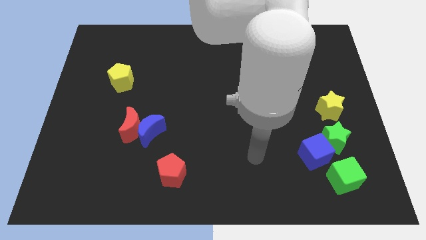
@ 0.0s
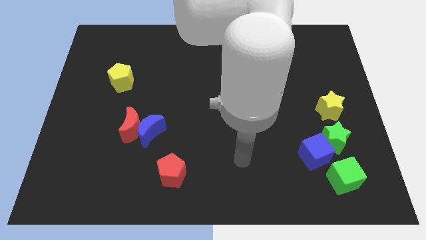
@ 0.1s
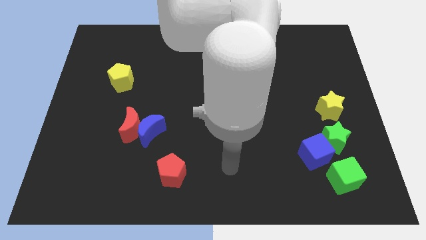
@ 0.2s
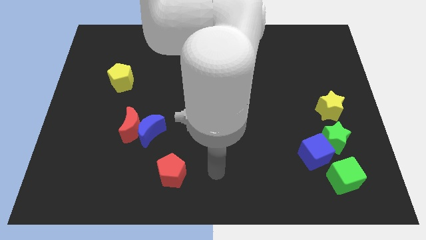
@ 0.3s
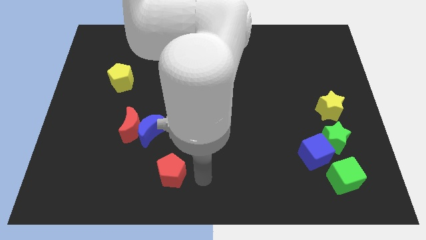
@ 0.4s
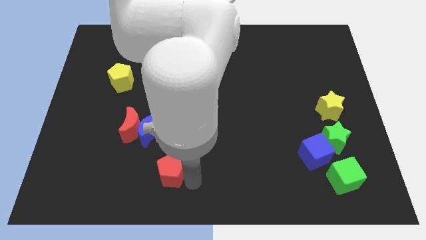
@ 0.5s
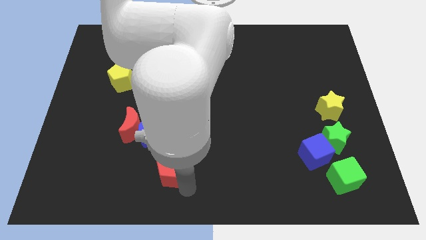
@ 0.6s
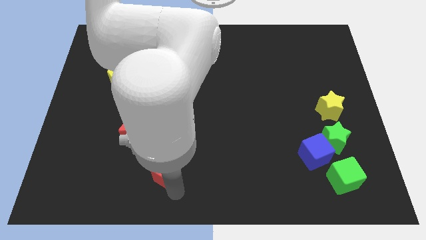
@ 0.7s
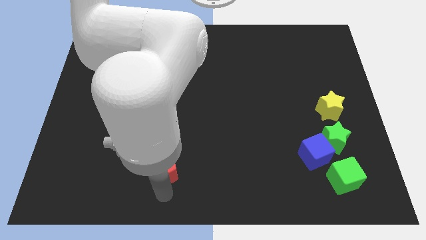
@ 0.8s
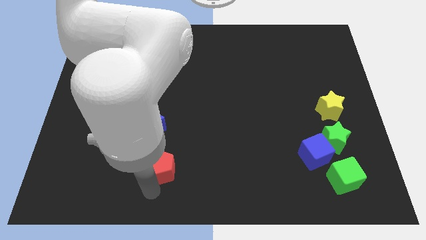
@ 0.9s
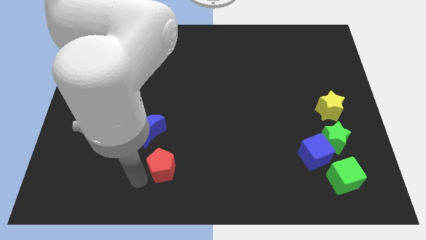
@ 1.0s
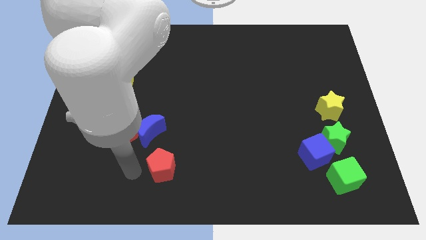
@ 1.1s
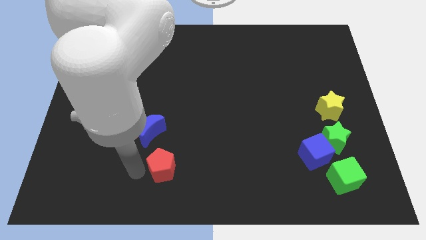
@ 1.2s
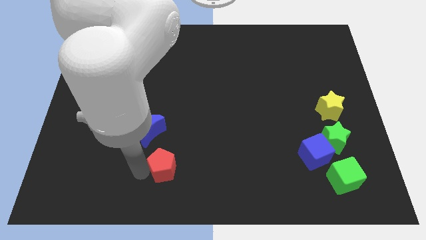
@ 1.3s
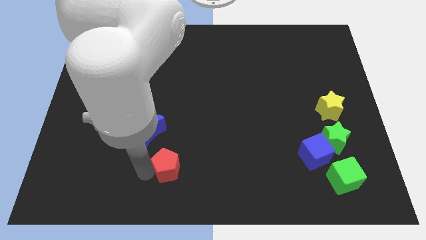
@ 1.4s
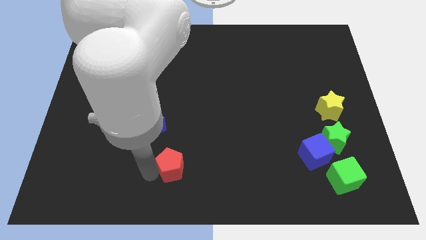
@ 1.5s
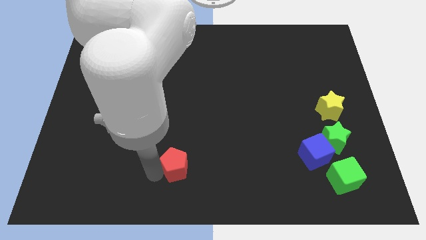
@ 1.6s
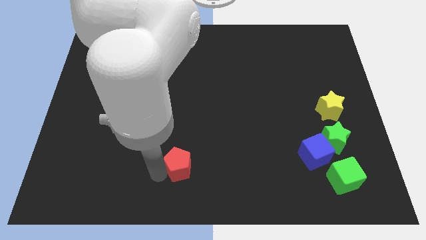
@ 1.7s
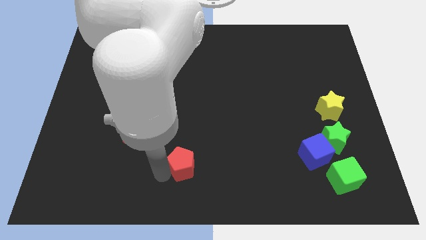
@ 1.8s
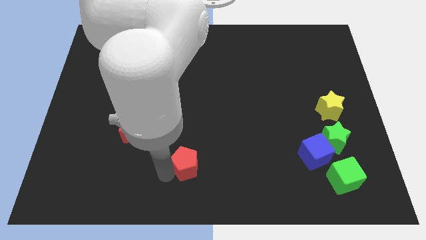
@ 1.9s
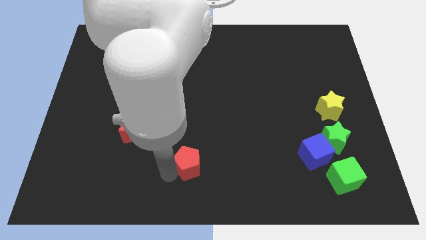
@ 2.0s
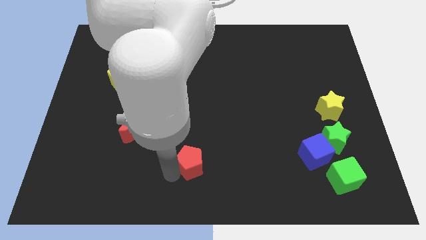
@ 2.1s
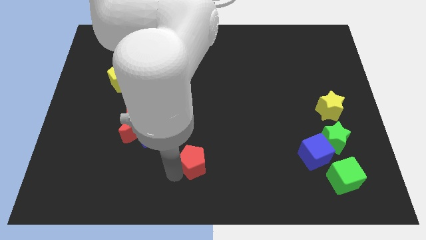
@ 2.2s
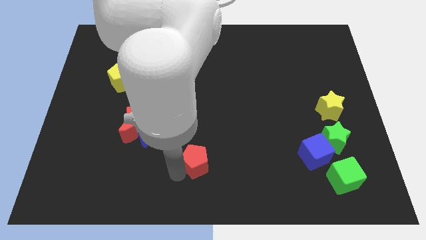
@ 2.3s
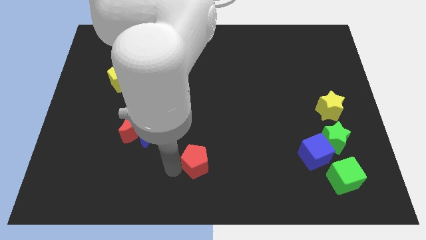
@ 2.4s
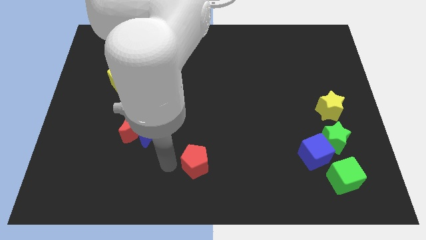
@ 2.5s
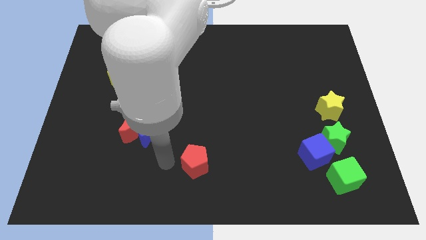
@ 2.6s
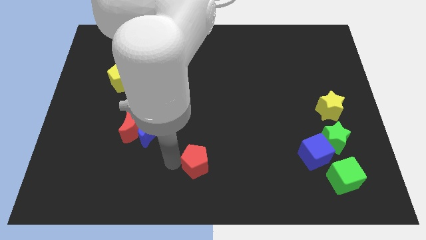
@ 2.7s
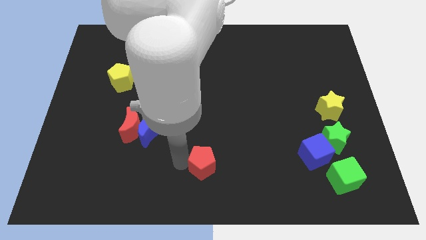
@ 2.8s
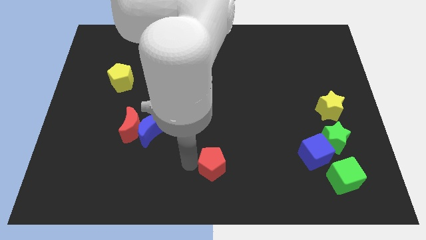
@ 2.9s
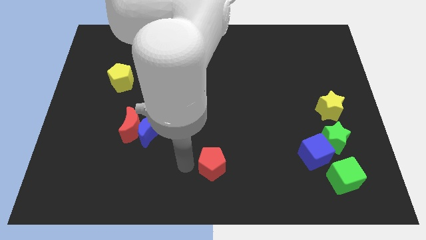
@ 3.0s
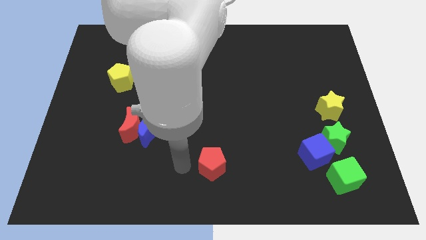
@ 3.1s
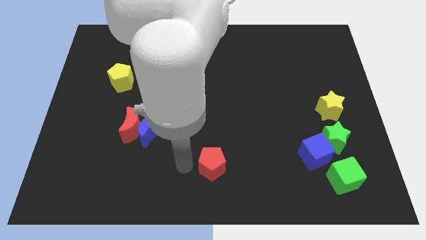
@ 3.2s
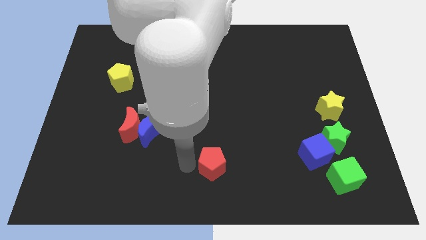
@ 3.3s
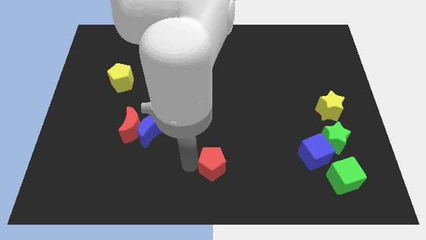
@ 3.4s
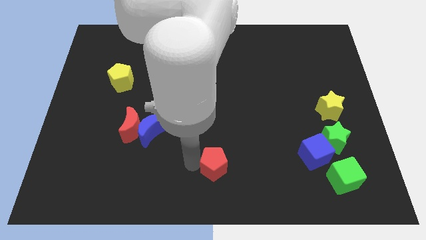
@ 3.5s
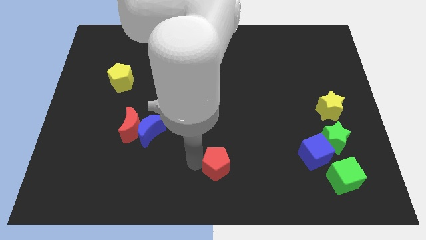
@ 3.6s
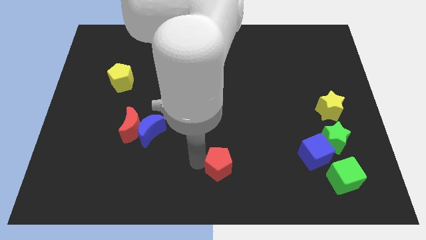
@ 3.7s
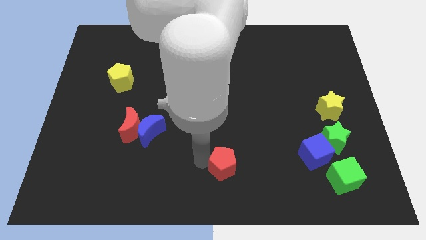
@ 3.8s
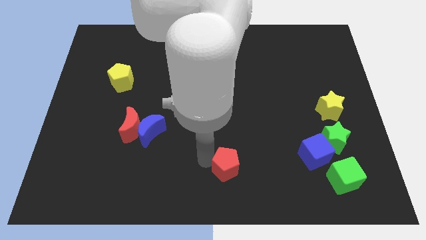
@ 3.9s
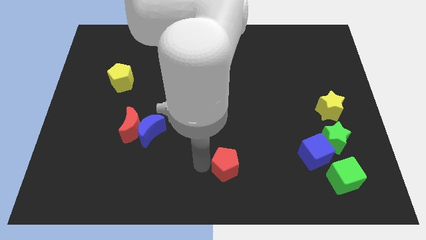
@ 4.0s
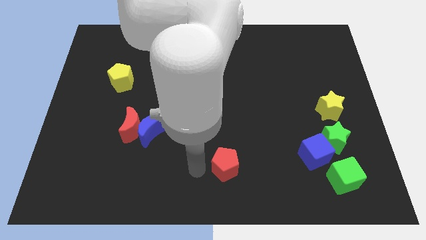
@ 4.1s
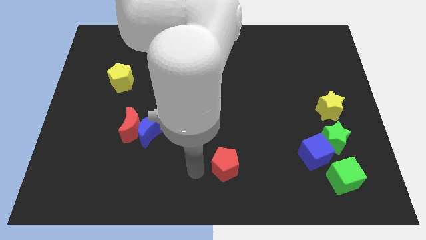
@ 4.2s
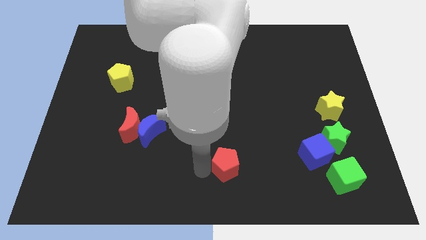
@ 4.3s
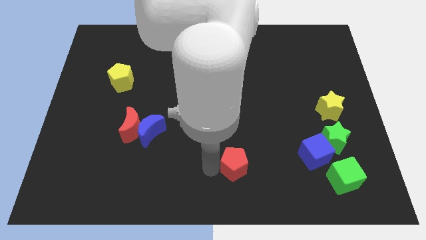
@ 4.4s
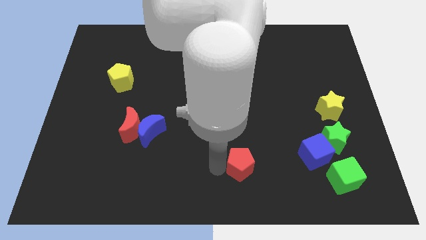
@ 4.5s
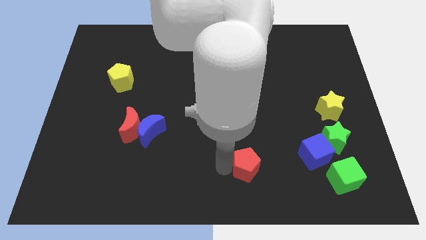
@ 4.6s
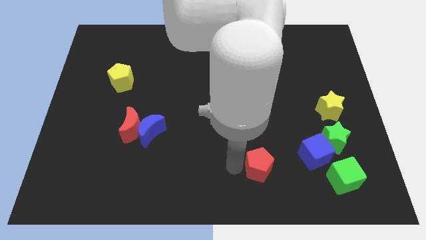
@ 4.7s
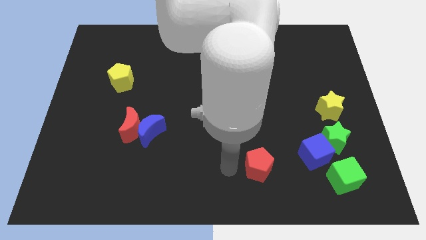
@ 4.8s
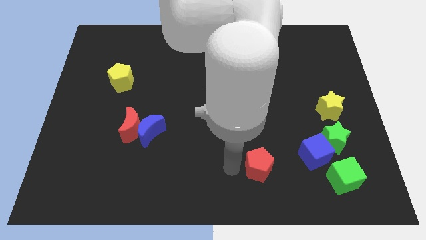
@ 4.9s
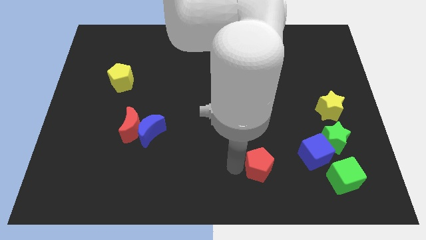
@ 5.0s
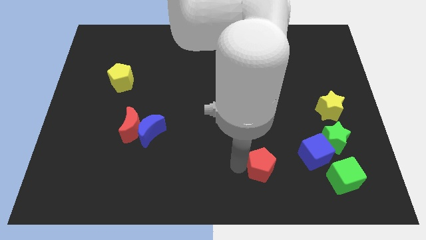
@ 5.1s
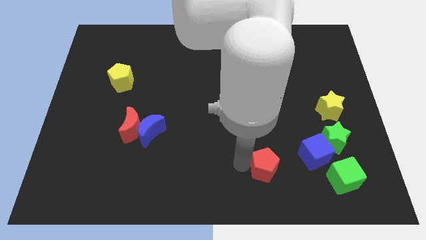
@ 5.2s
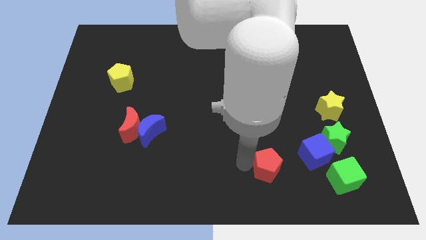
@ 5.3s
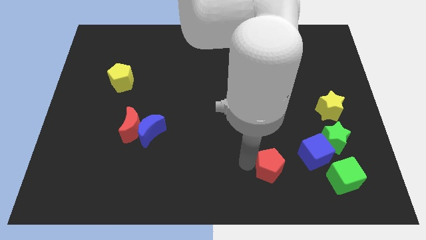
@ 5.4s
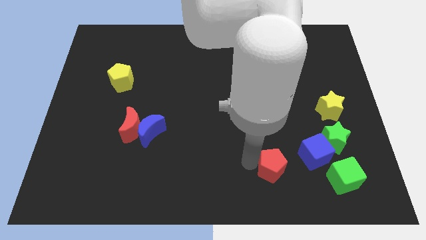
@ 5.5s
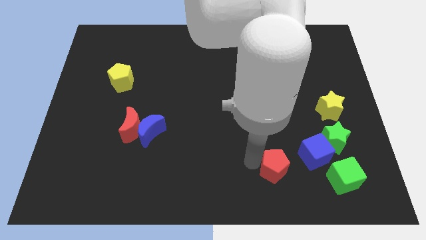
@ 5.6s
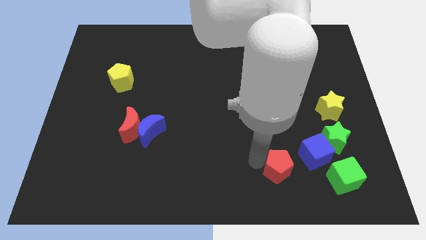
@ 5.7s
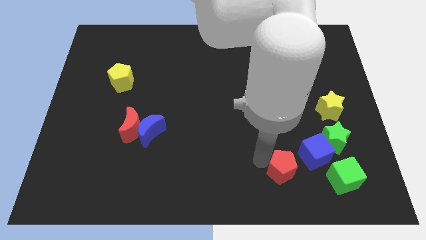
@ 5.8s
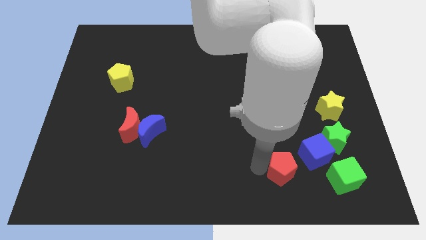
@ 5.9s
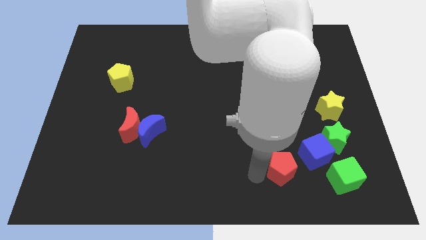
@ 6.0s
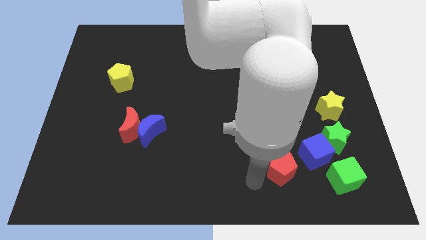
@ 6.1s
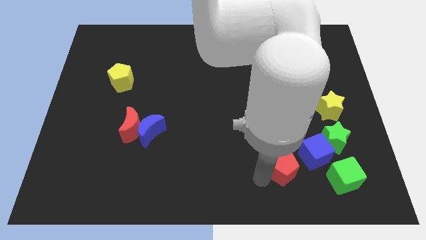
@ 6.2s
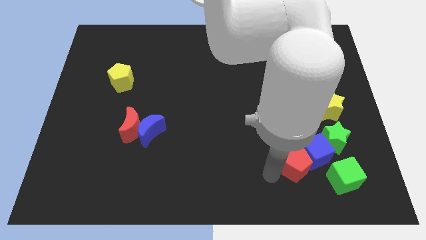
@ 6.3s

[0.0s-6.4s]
push the red pentagon to the blue cube

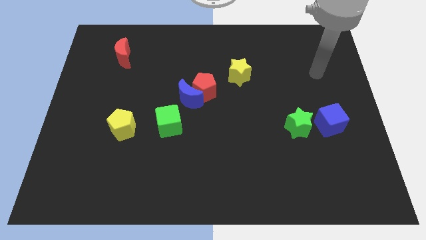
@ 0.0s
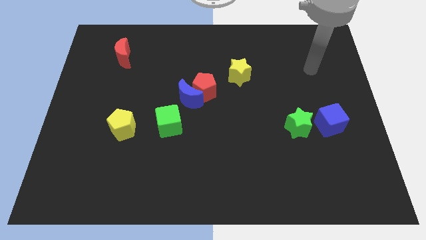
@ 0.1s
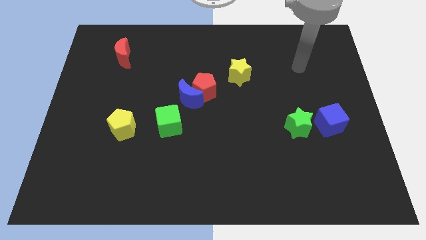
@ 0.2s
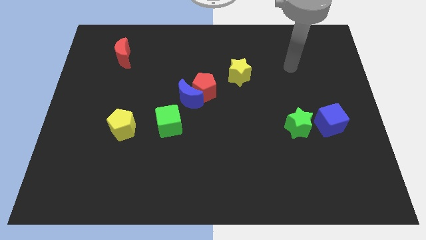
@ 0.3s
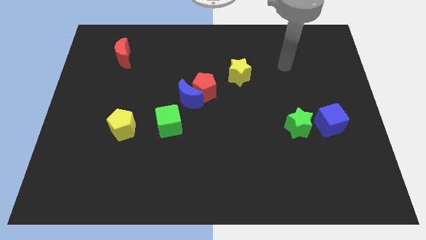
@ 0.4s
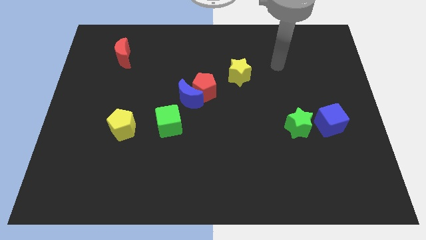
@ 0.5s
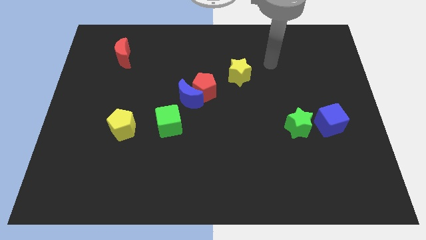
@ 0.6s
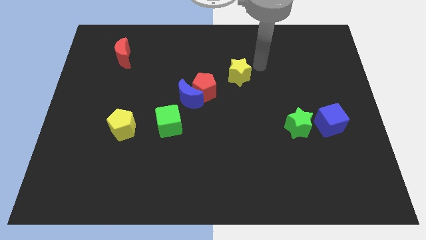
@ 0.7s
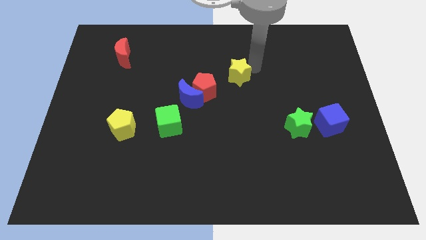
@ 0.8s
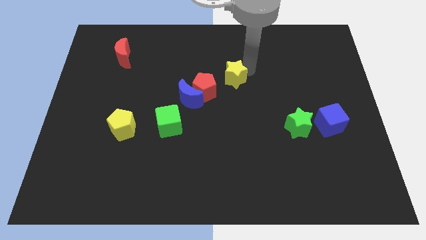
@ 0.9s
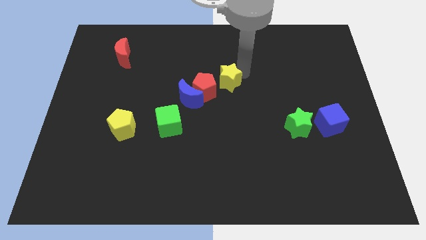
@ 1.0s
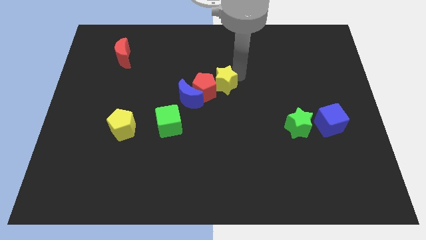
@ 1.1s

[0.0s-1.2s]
move the yellow star next to the red pentagon

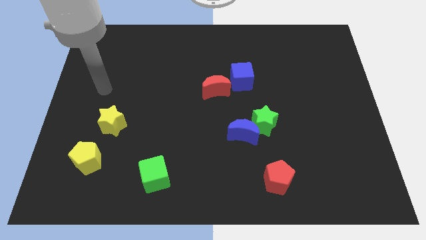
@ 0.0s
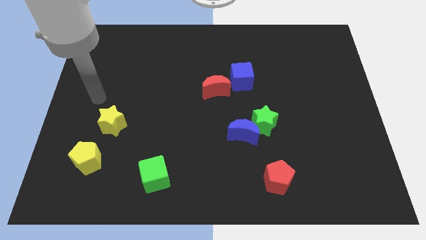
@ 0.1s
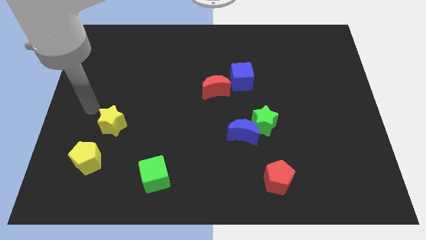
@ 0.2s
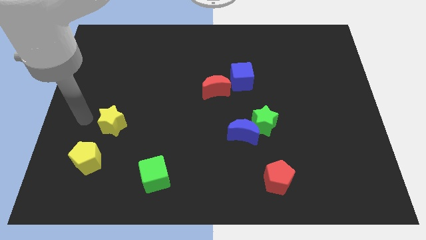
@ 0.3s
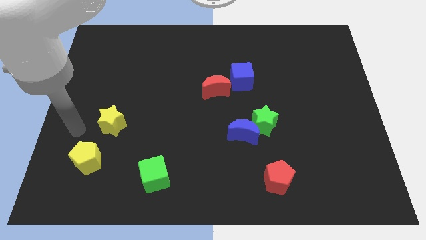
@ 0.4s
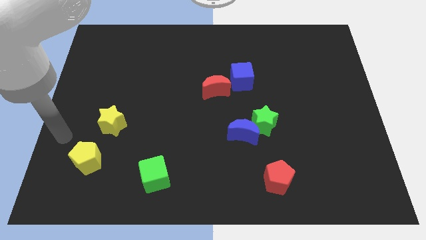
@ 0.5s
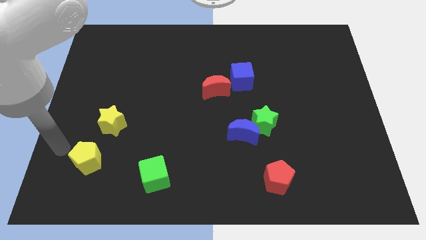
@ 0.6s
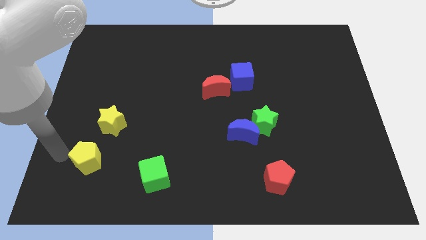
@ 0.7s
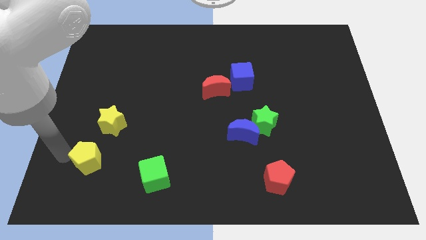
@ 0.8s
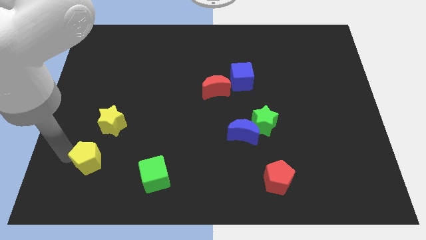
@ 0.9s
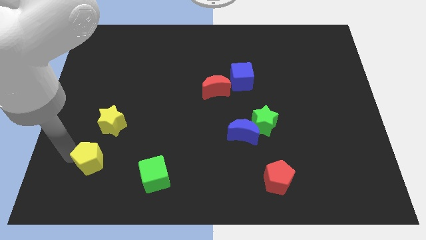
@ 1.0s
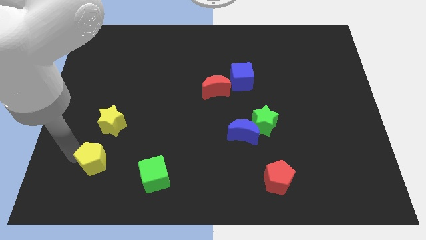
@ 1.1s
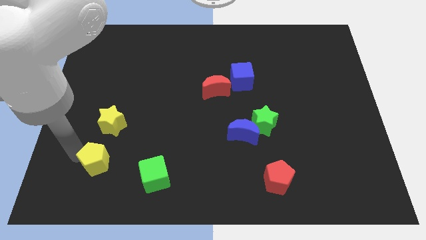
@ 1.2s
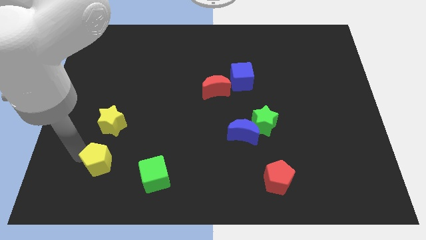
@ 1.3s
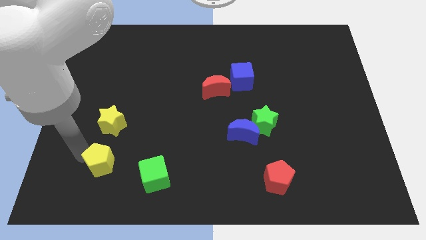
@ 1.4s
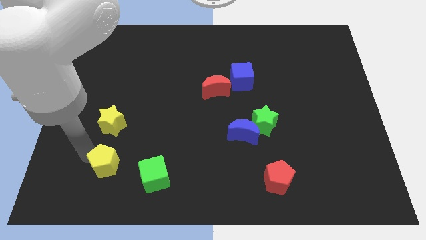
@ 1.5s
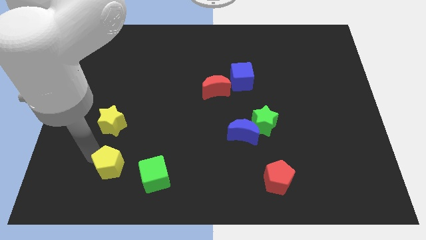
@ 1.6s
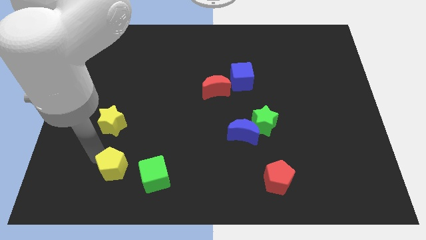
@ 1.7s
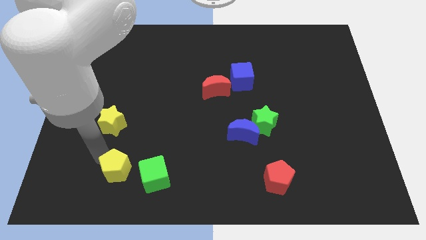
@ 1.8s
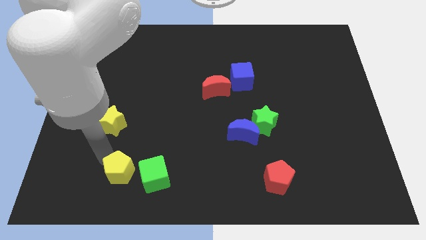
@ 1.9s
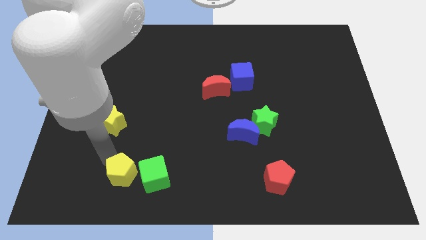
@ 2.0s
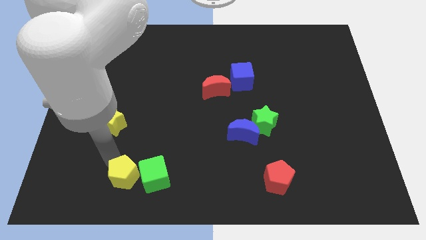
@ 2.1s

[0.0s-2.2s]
put the yellow pentagon next to the green cube
